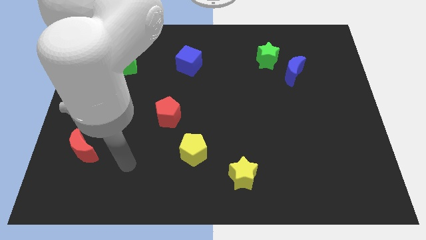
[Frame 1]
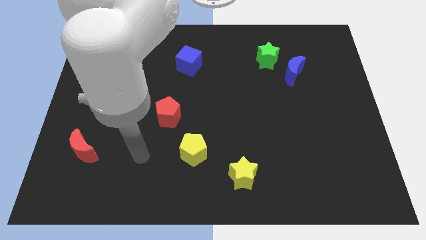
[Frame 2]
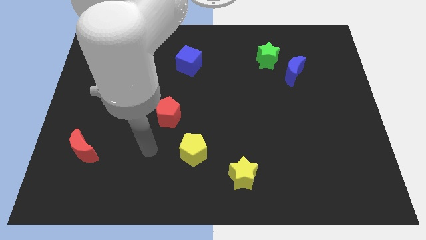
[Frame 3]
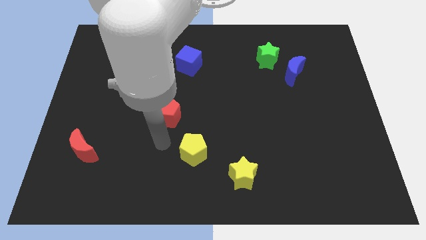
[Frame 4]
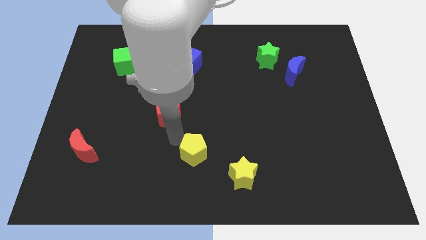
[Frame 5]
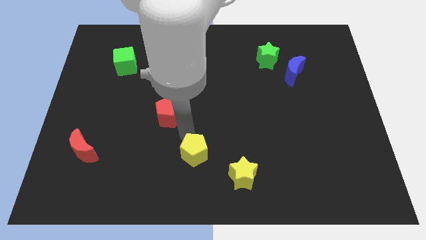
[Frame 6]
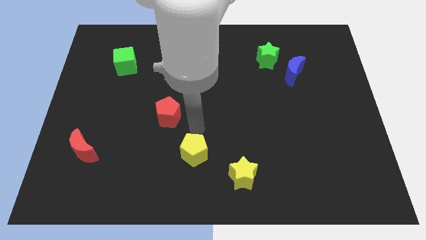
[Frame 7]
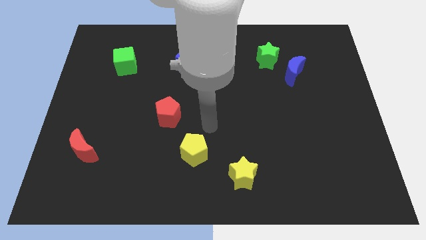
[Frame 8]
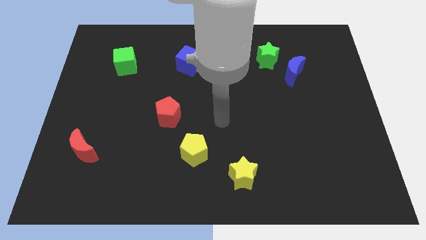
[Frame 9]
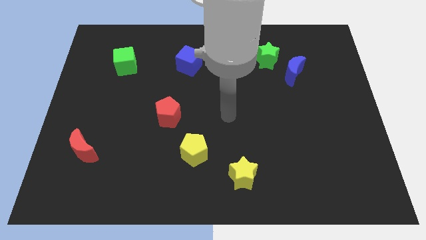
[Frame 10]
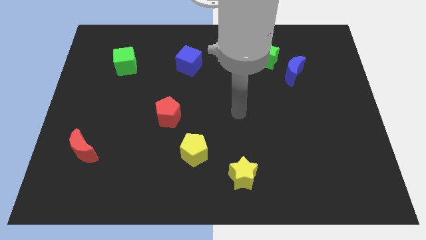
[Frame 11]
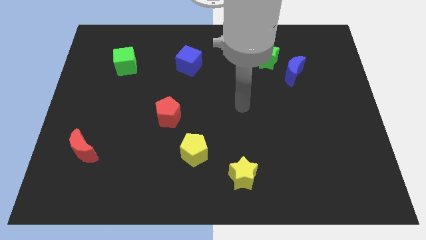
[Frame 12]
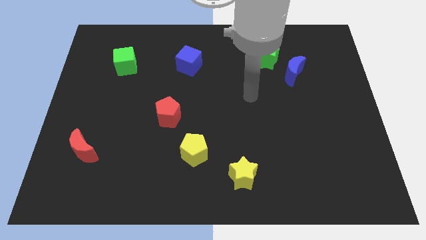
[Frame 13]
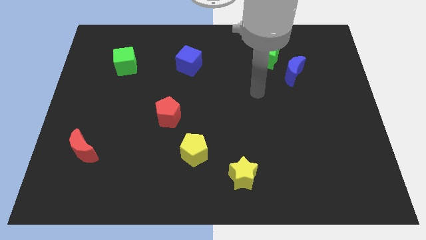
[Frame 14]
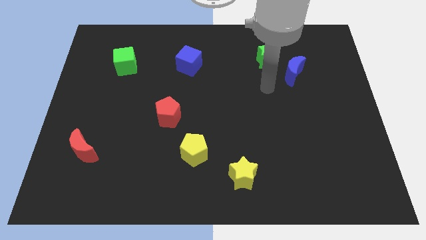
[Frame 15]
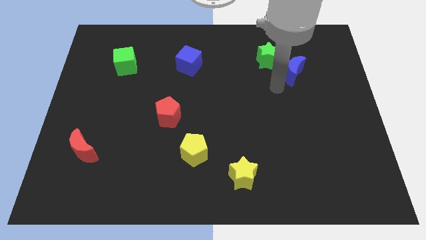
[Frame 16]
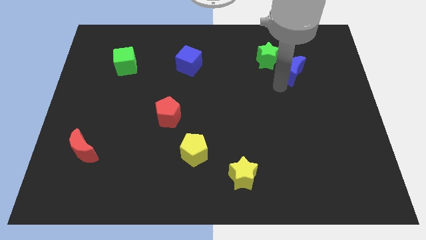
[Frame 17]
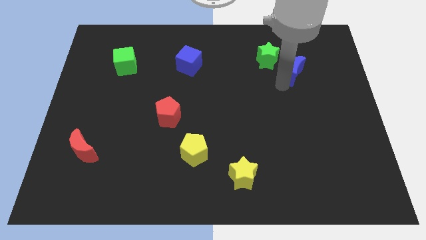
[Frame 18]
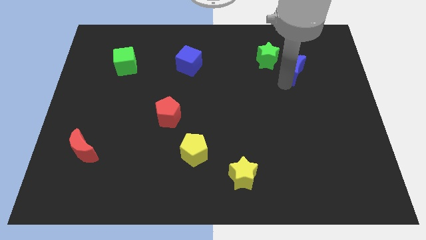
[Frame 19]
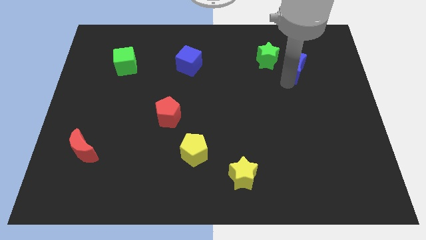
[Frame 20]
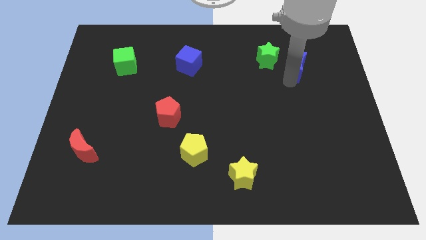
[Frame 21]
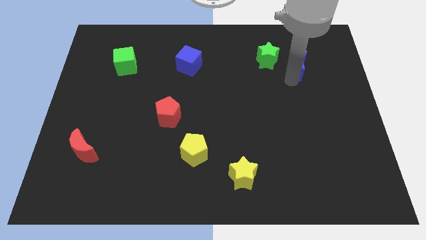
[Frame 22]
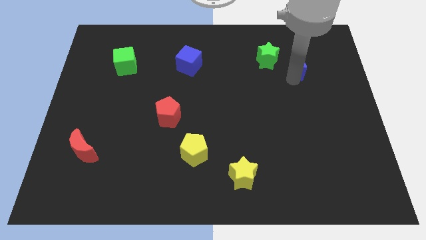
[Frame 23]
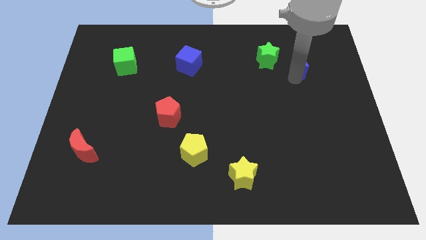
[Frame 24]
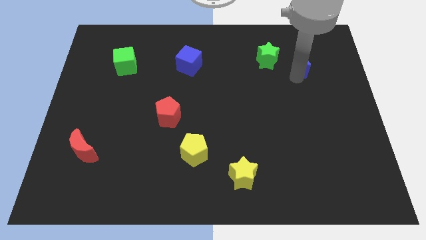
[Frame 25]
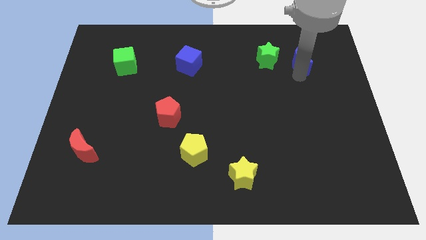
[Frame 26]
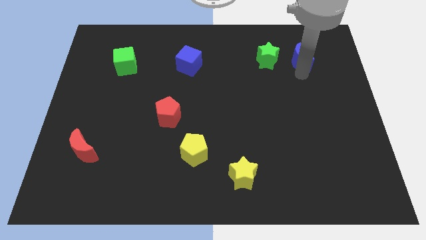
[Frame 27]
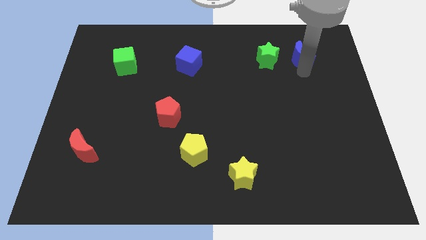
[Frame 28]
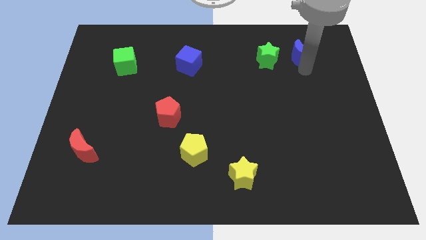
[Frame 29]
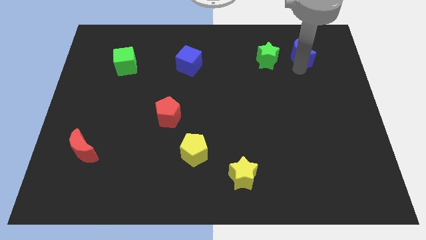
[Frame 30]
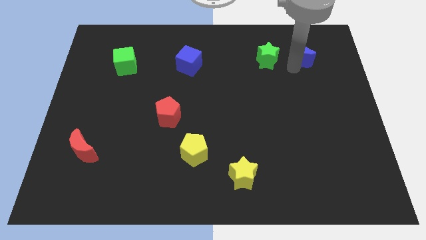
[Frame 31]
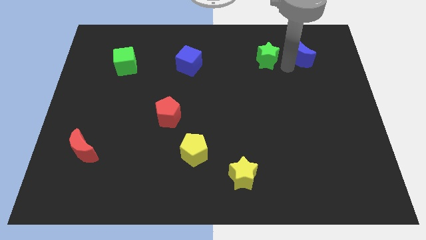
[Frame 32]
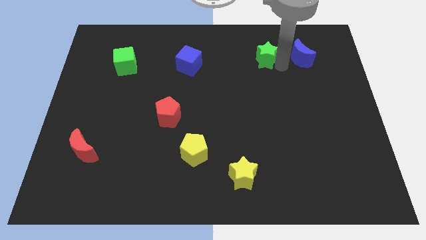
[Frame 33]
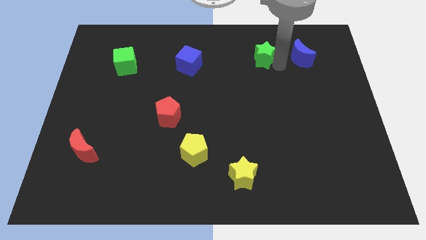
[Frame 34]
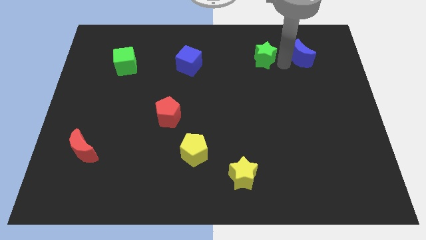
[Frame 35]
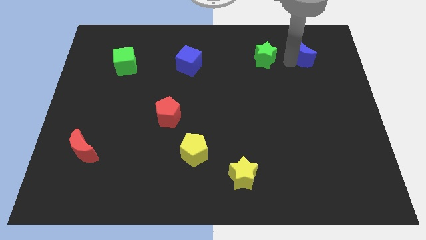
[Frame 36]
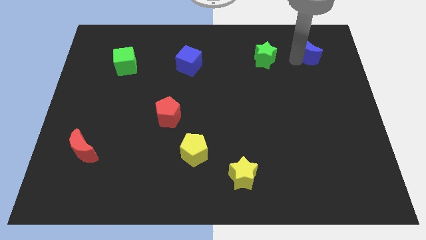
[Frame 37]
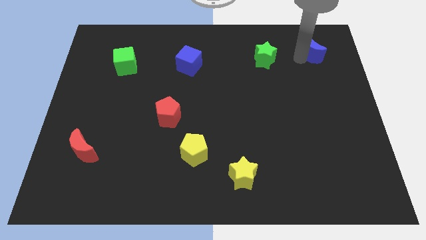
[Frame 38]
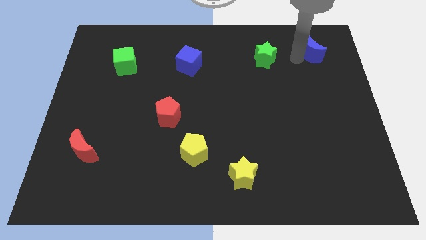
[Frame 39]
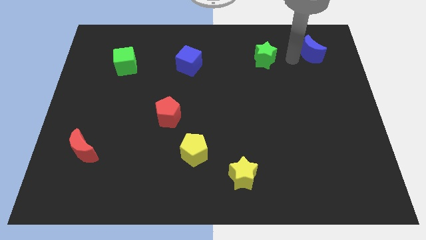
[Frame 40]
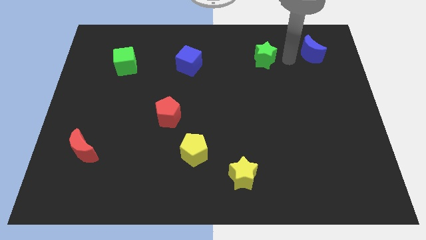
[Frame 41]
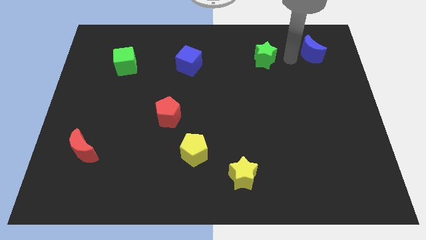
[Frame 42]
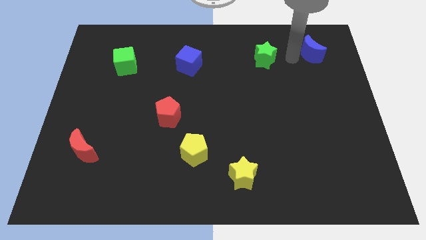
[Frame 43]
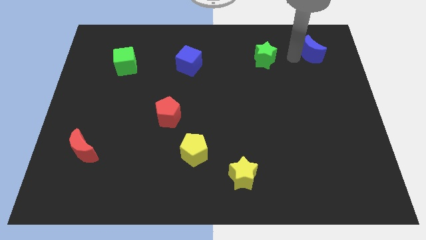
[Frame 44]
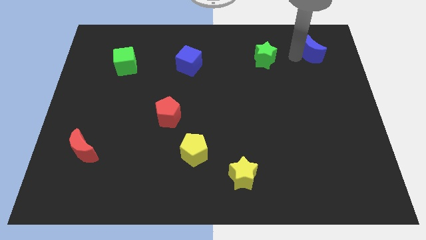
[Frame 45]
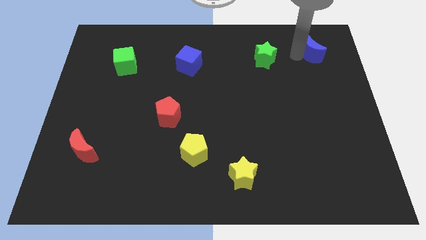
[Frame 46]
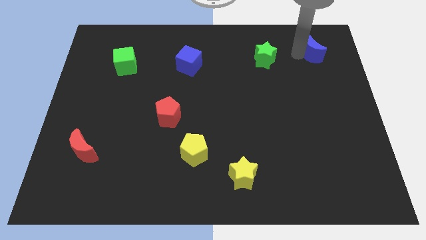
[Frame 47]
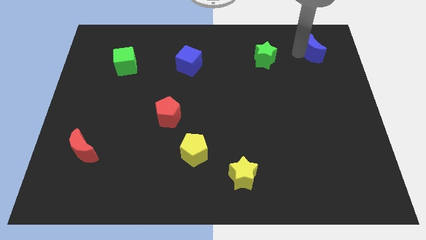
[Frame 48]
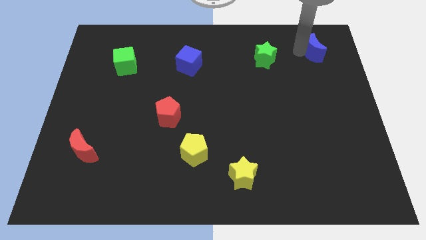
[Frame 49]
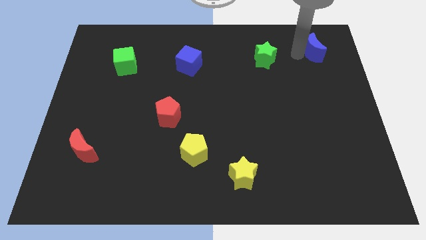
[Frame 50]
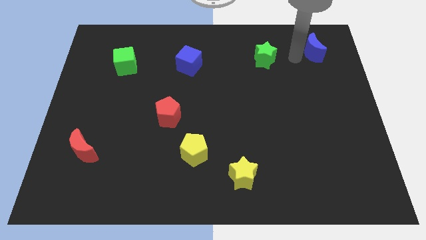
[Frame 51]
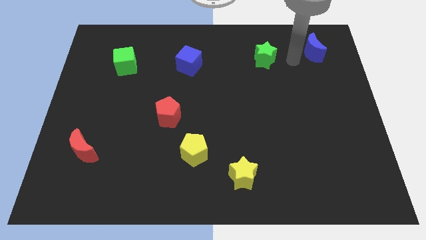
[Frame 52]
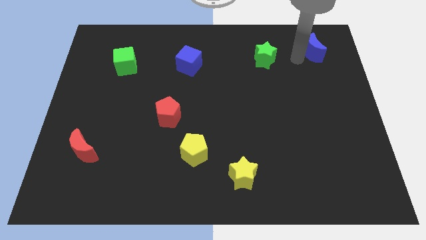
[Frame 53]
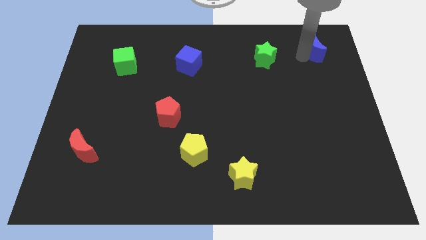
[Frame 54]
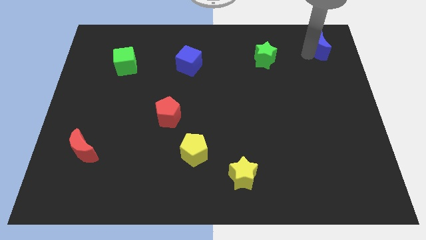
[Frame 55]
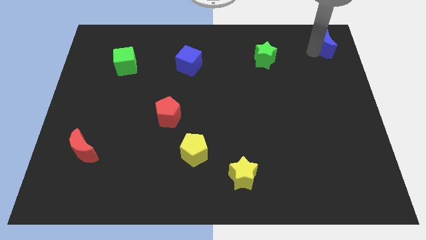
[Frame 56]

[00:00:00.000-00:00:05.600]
push the blue moon to the top right of the board

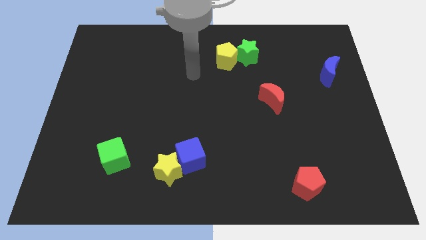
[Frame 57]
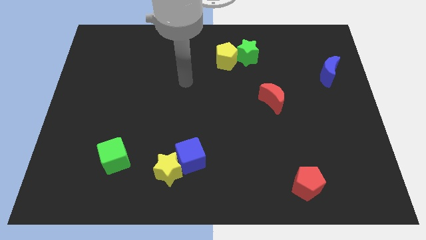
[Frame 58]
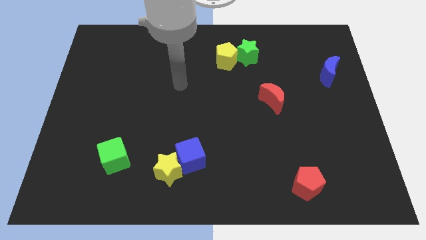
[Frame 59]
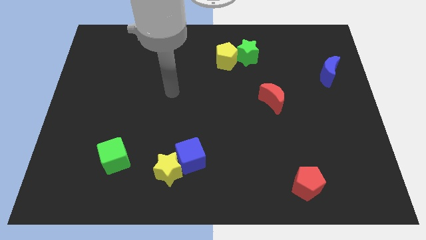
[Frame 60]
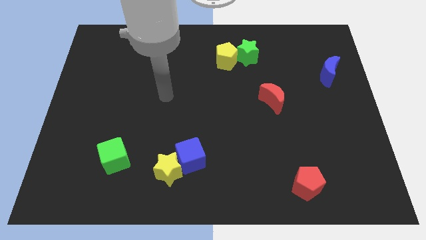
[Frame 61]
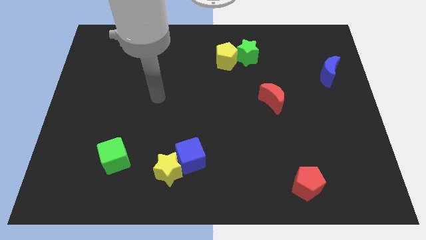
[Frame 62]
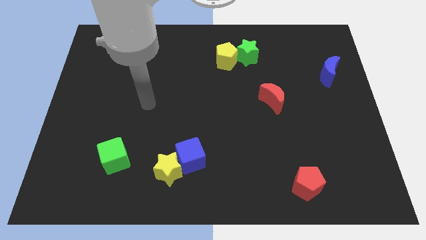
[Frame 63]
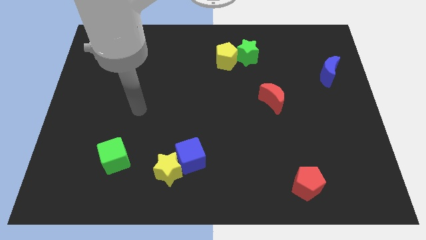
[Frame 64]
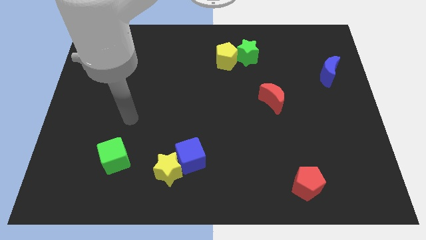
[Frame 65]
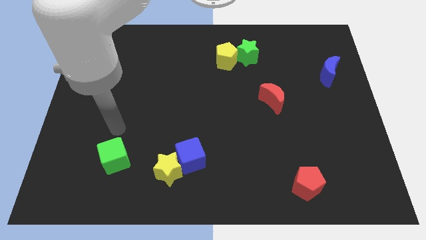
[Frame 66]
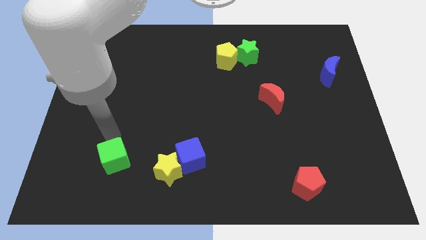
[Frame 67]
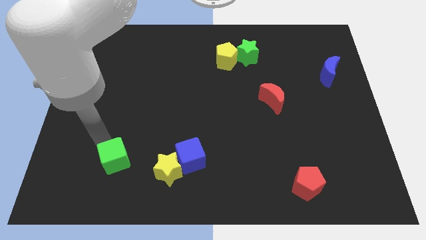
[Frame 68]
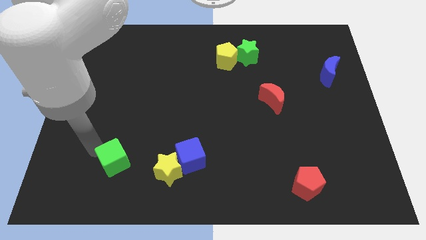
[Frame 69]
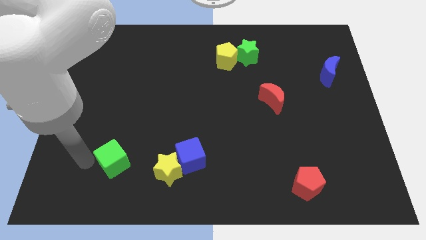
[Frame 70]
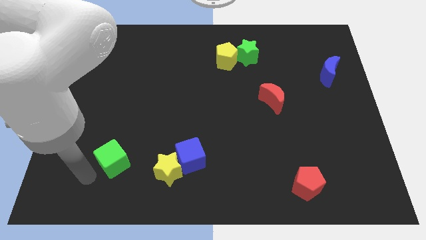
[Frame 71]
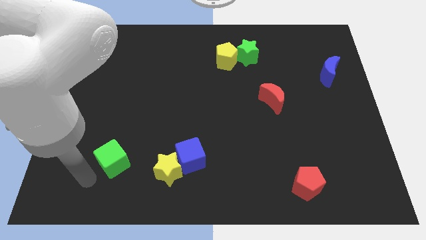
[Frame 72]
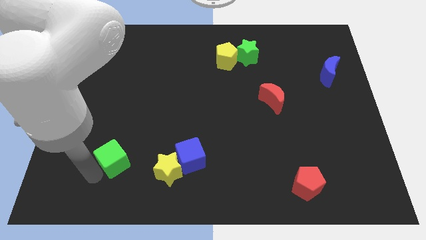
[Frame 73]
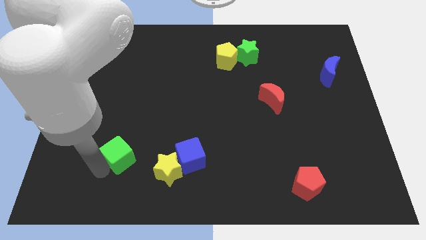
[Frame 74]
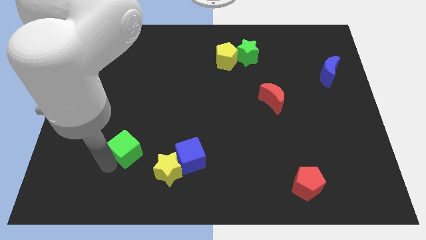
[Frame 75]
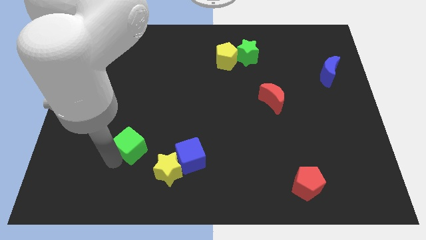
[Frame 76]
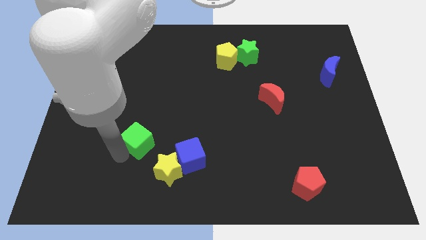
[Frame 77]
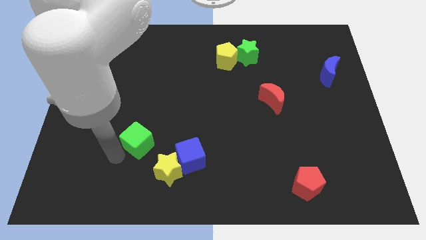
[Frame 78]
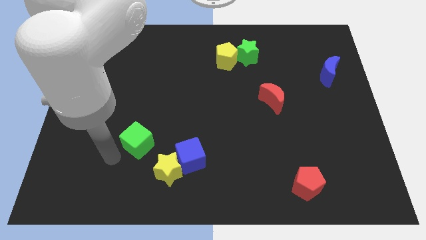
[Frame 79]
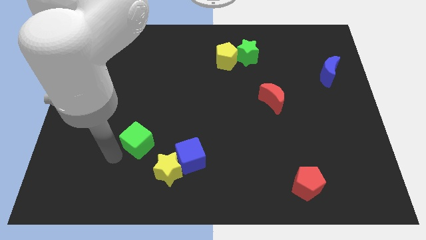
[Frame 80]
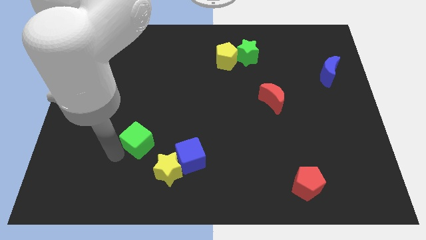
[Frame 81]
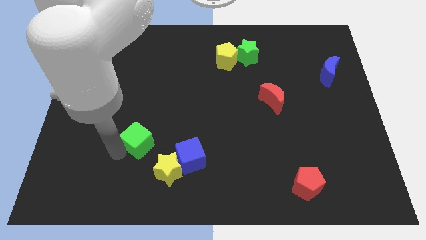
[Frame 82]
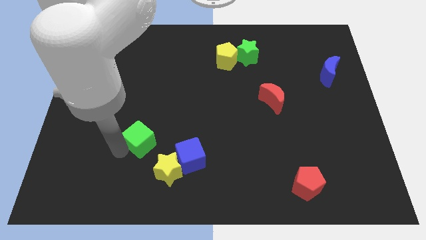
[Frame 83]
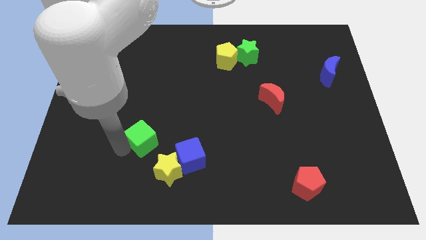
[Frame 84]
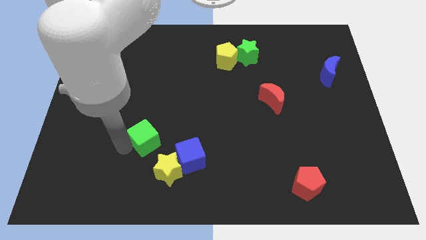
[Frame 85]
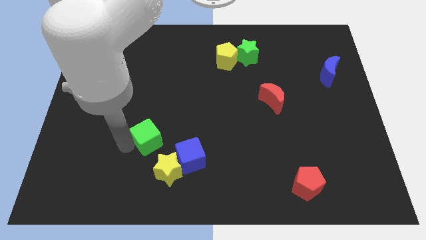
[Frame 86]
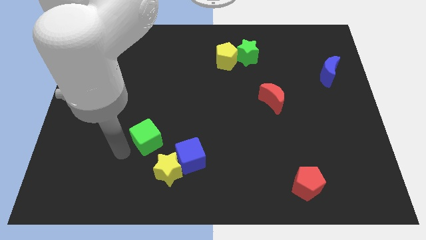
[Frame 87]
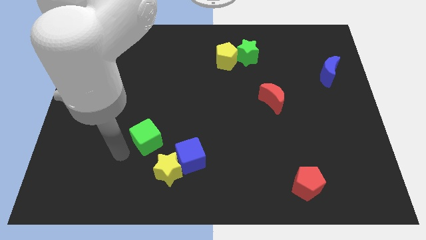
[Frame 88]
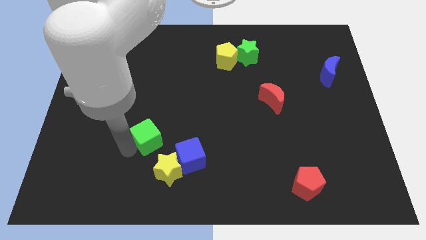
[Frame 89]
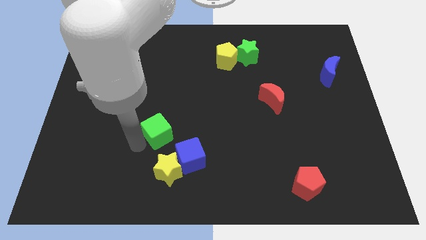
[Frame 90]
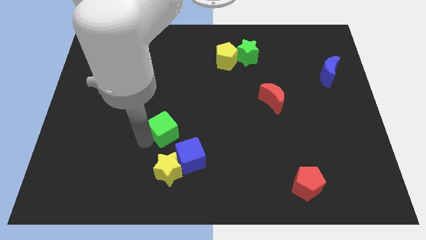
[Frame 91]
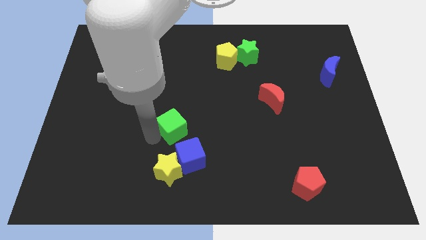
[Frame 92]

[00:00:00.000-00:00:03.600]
push the green cube to the middle
